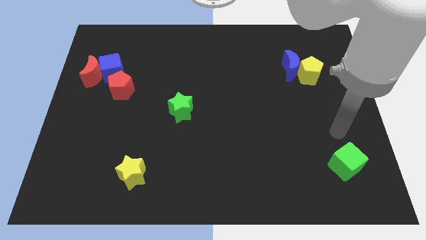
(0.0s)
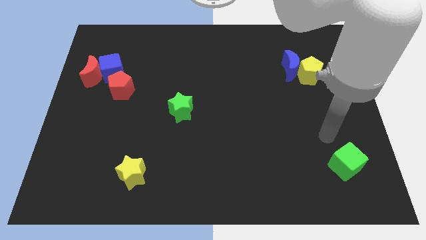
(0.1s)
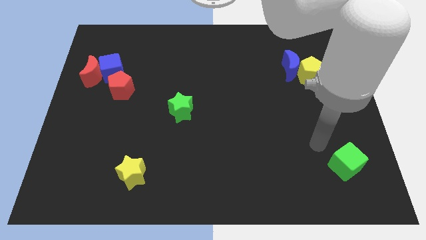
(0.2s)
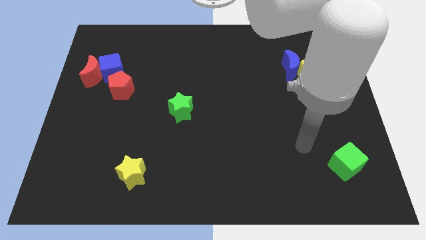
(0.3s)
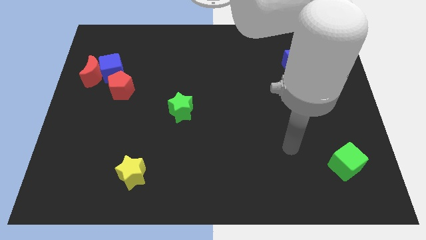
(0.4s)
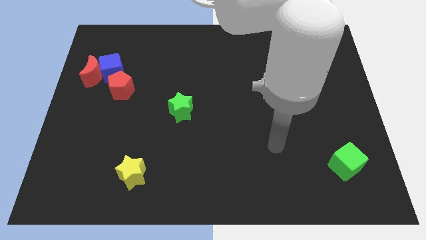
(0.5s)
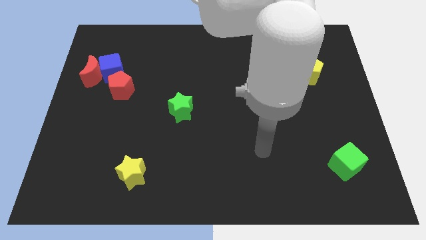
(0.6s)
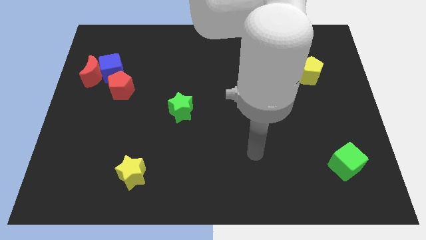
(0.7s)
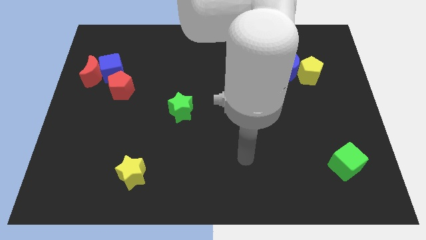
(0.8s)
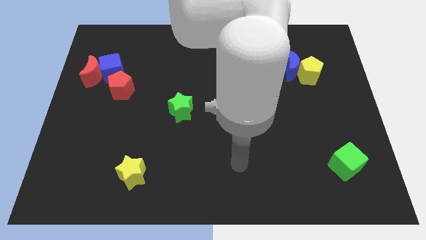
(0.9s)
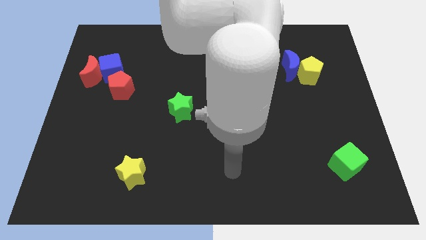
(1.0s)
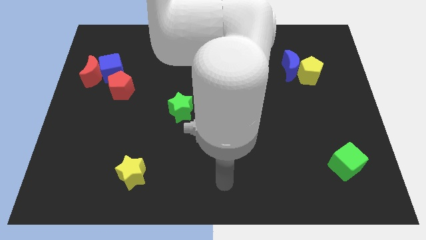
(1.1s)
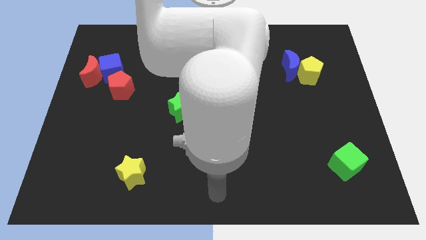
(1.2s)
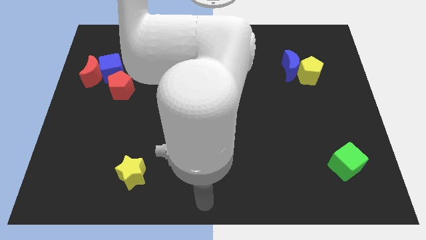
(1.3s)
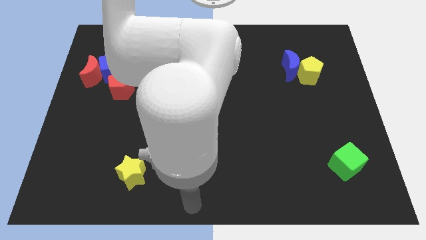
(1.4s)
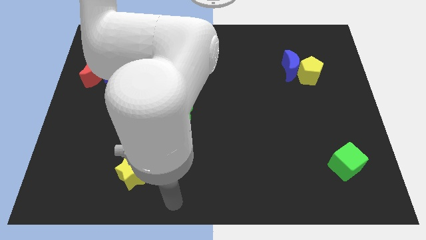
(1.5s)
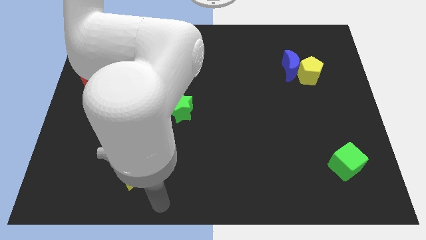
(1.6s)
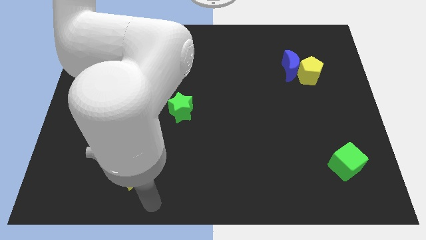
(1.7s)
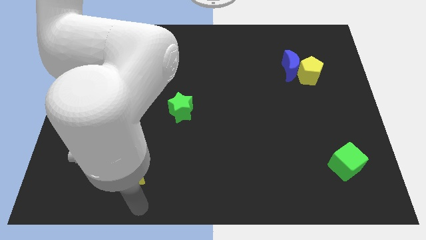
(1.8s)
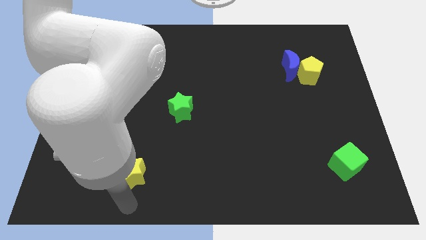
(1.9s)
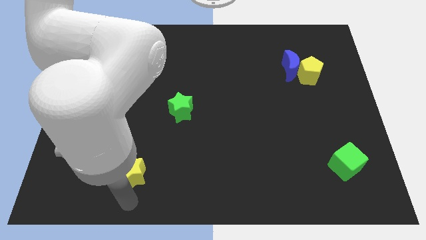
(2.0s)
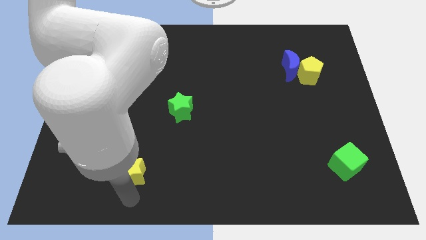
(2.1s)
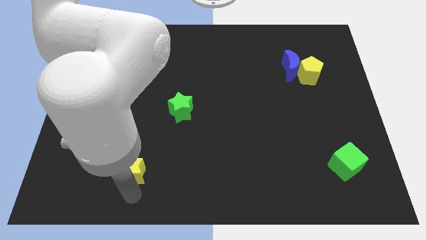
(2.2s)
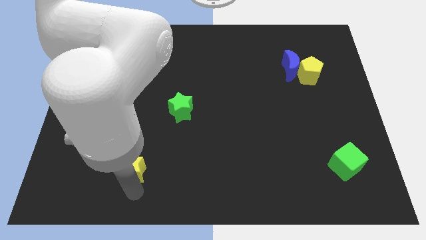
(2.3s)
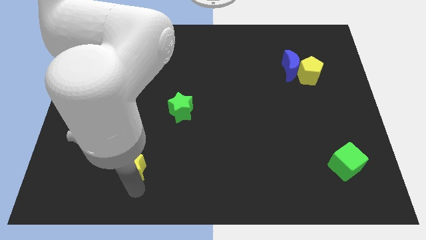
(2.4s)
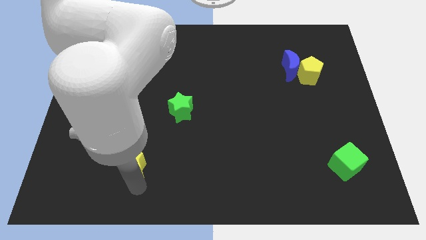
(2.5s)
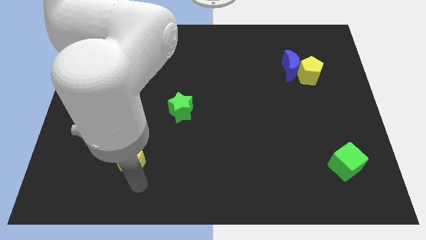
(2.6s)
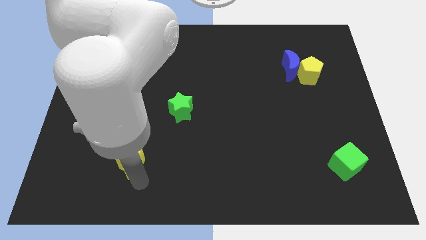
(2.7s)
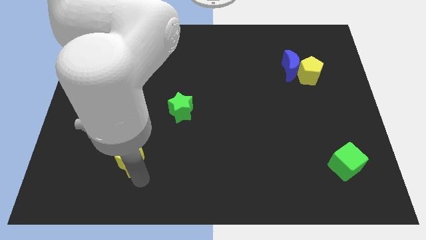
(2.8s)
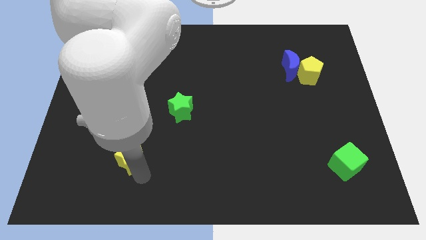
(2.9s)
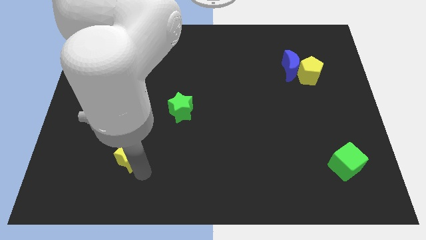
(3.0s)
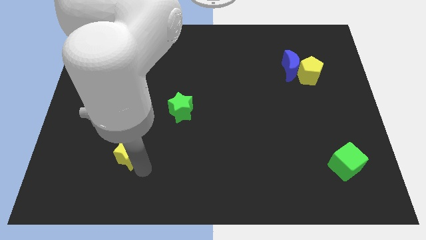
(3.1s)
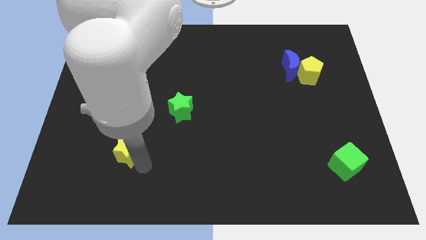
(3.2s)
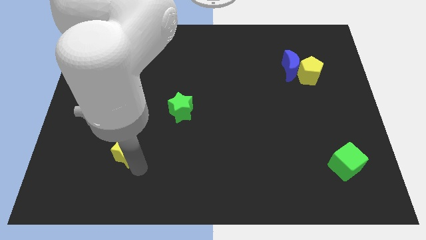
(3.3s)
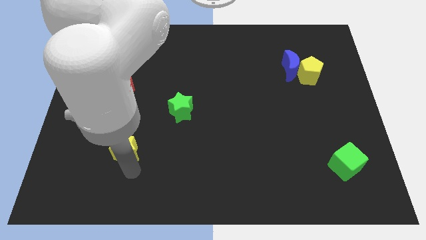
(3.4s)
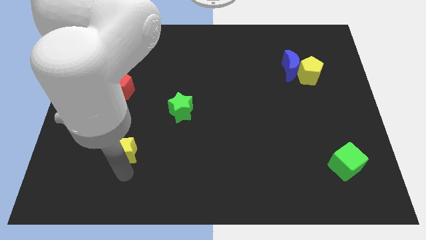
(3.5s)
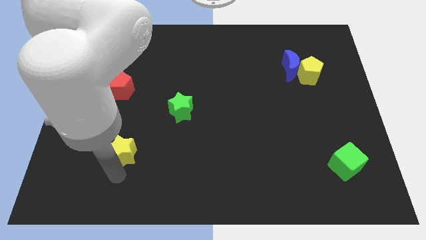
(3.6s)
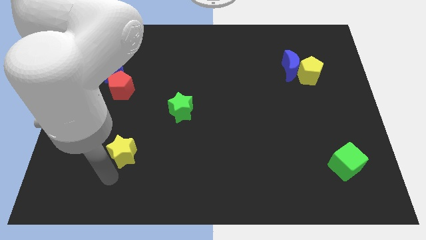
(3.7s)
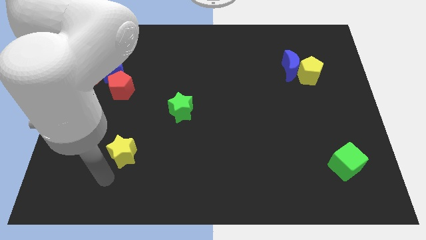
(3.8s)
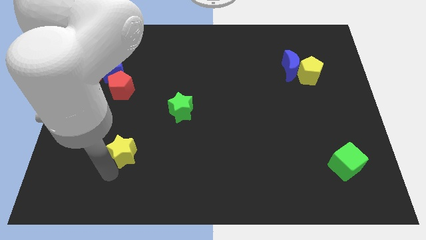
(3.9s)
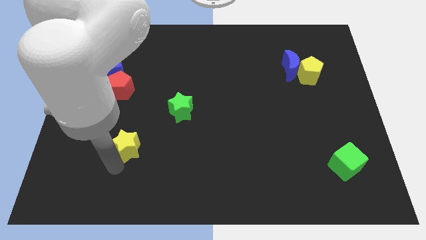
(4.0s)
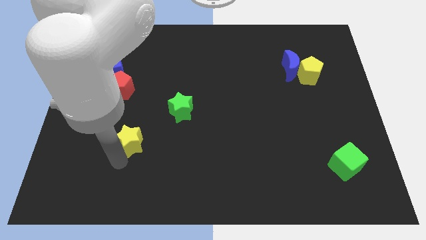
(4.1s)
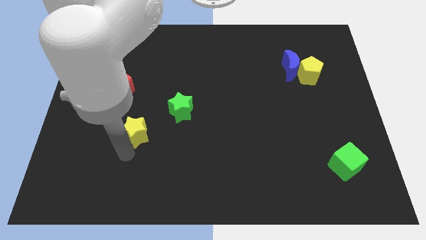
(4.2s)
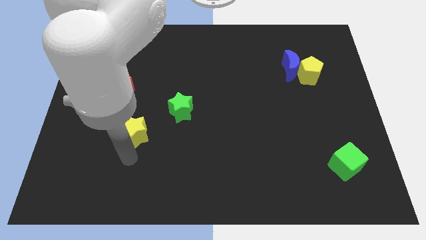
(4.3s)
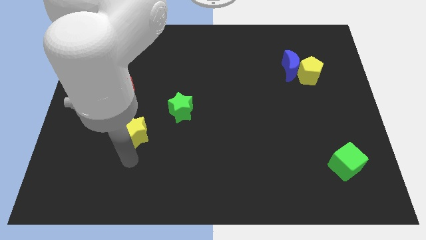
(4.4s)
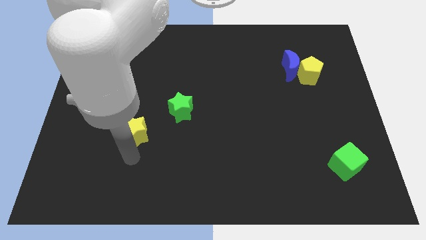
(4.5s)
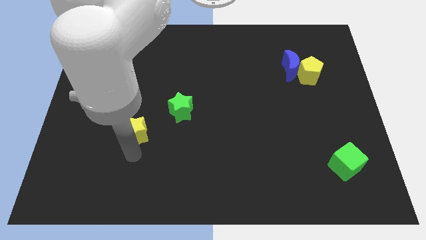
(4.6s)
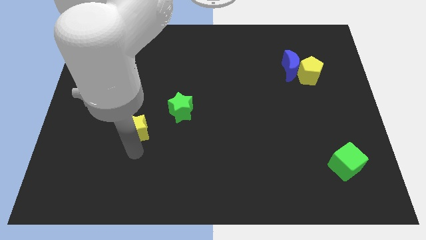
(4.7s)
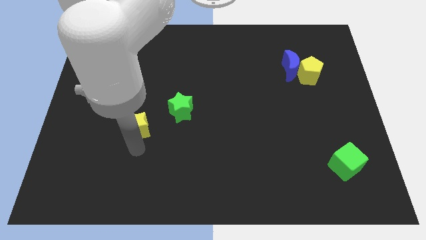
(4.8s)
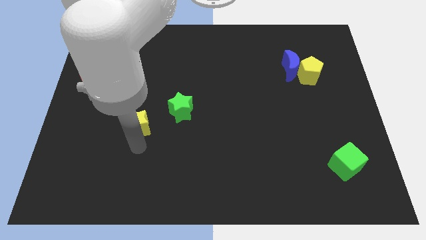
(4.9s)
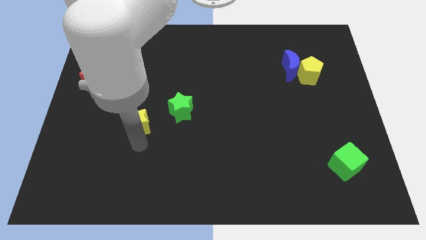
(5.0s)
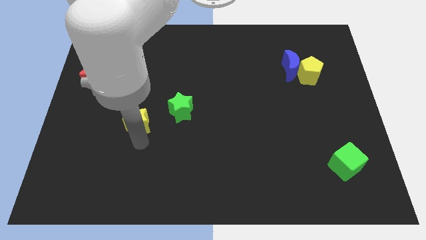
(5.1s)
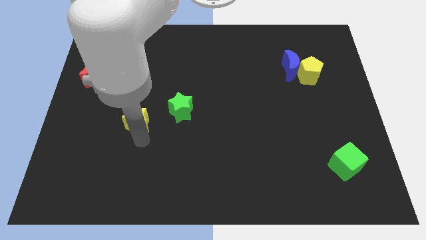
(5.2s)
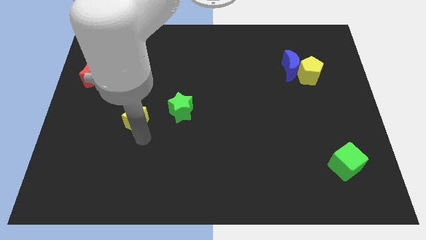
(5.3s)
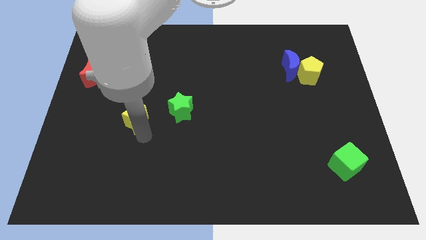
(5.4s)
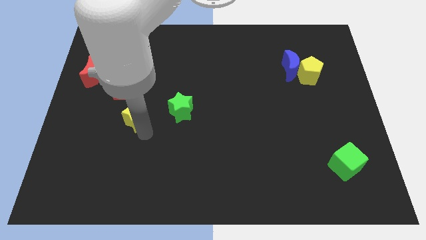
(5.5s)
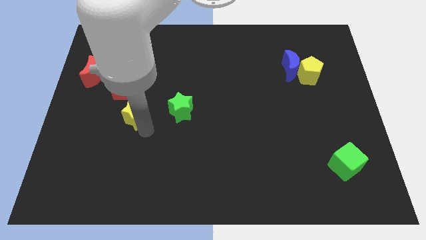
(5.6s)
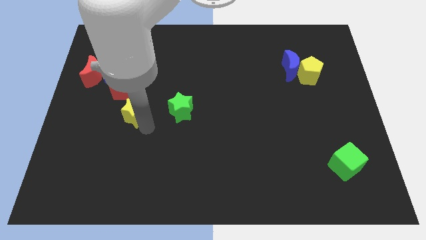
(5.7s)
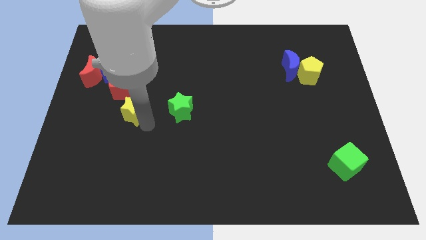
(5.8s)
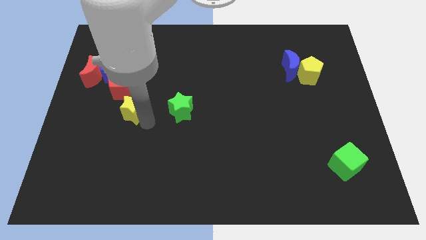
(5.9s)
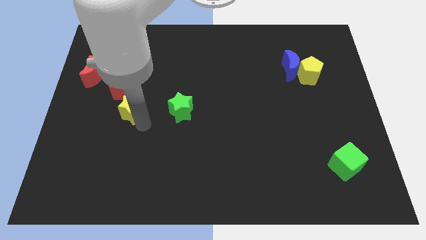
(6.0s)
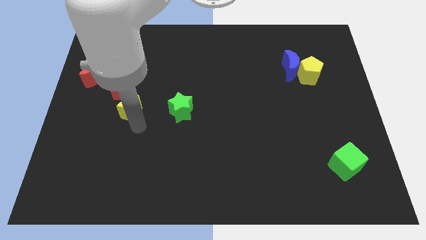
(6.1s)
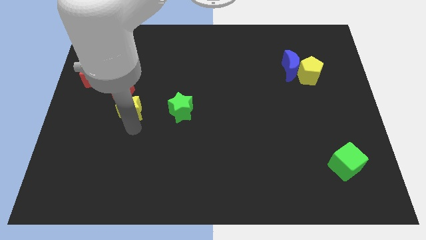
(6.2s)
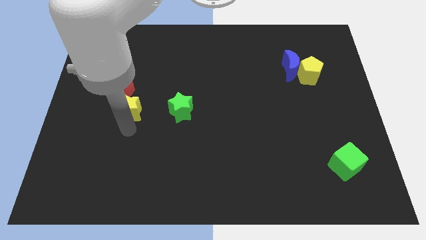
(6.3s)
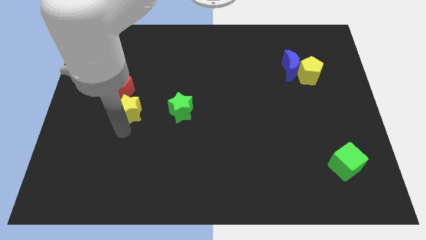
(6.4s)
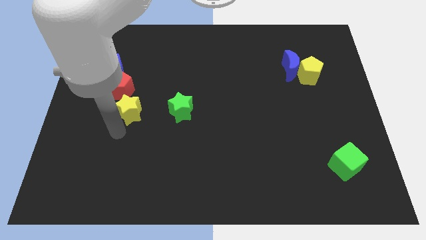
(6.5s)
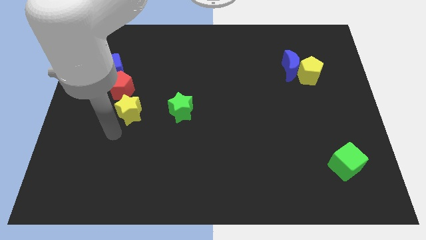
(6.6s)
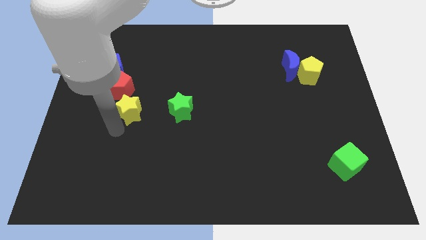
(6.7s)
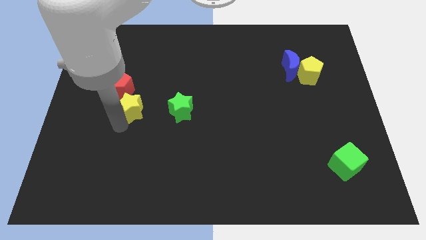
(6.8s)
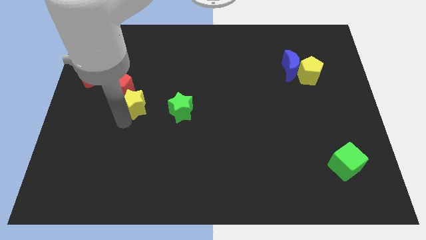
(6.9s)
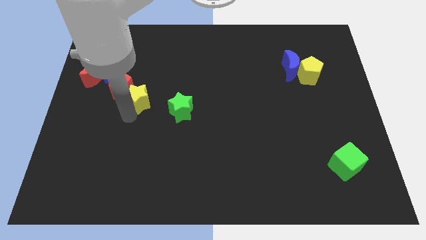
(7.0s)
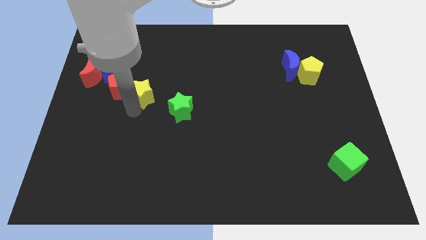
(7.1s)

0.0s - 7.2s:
slide the yellow star up

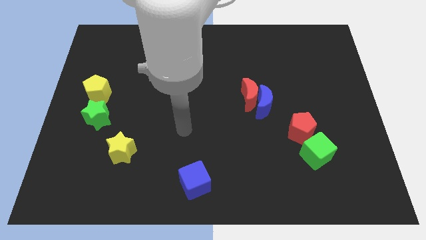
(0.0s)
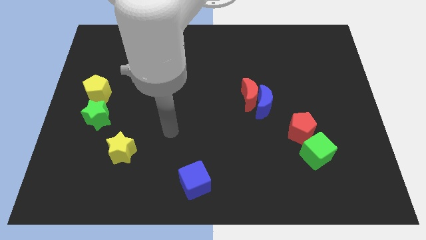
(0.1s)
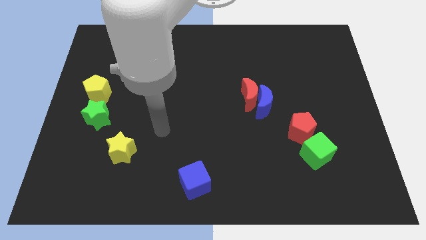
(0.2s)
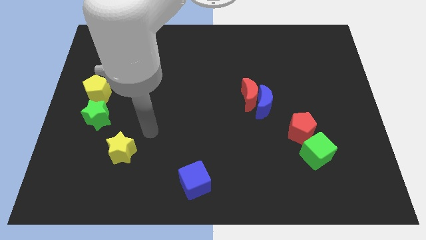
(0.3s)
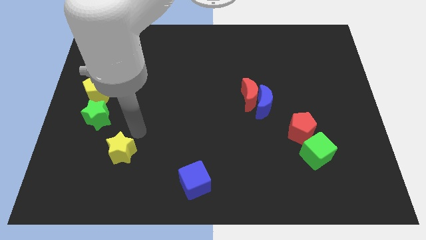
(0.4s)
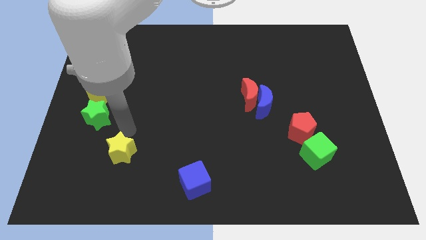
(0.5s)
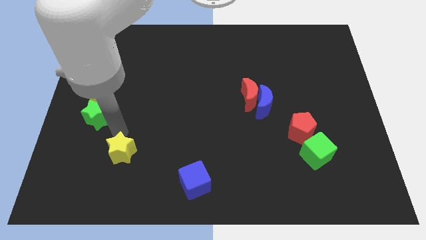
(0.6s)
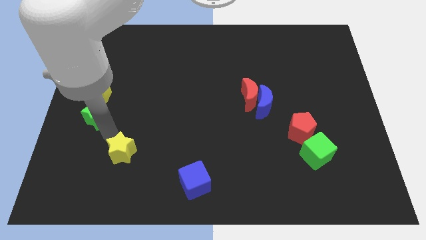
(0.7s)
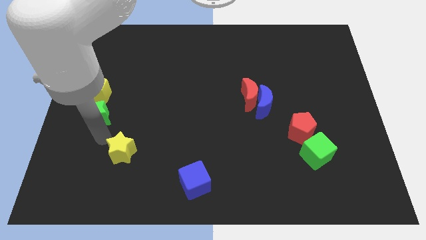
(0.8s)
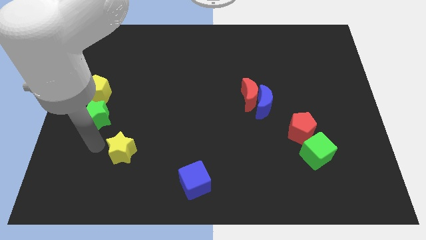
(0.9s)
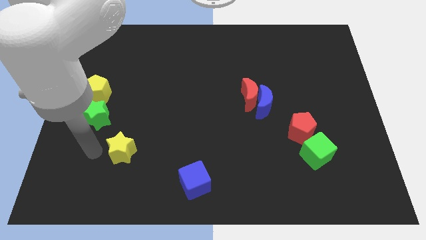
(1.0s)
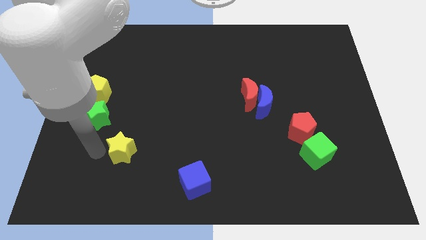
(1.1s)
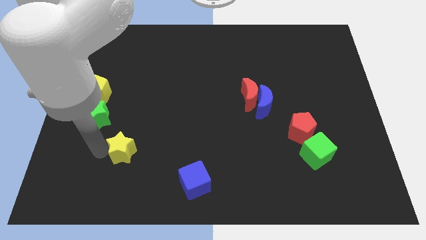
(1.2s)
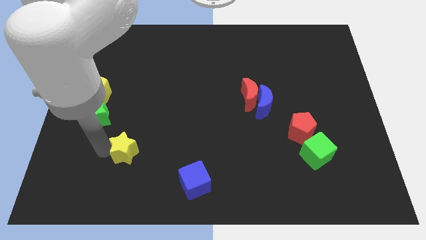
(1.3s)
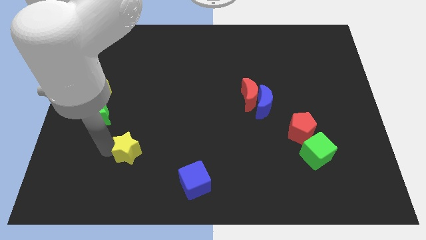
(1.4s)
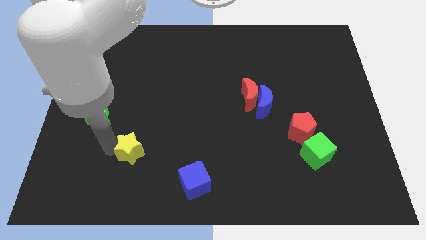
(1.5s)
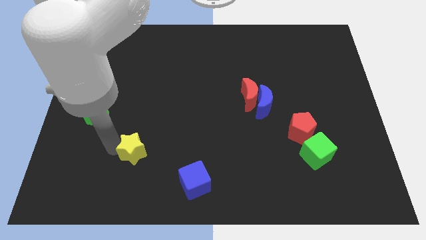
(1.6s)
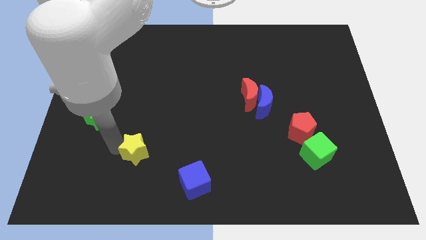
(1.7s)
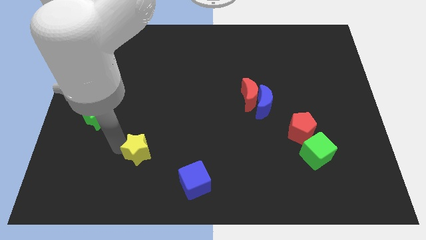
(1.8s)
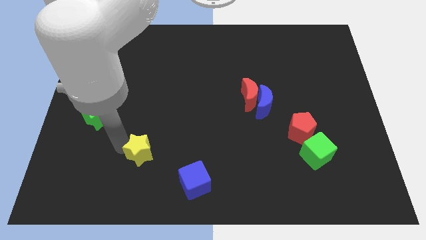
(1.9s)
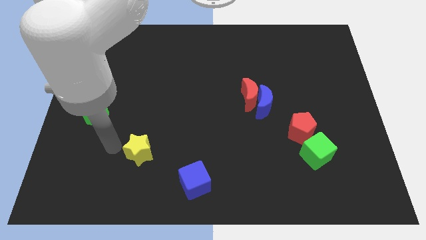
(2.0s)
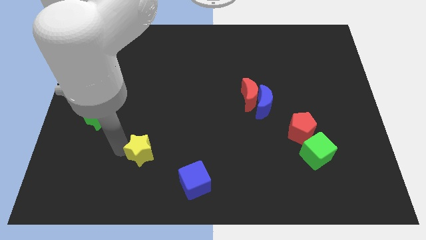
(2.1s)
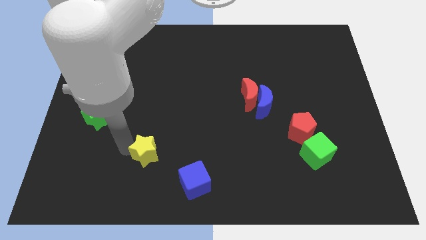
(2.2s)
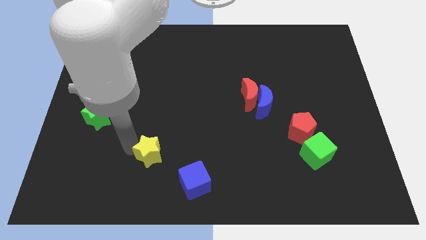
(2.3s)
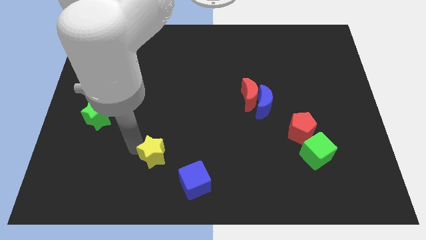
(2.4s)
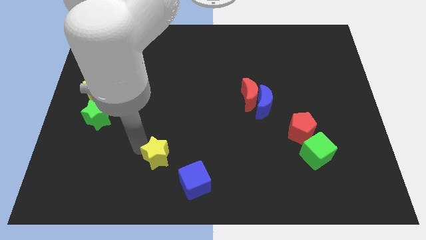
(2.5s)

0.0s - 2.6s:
slightly push the yellow star to the right
